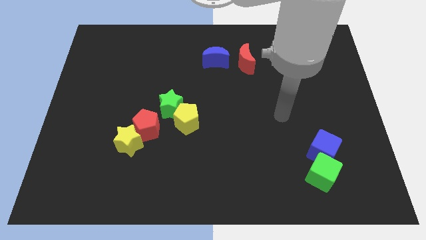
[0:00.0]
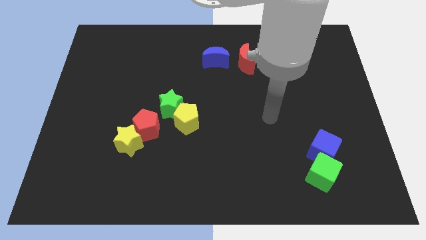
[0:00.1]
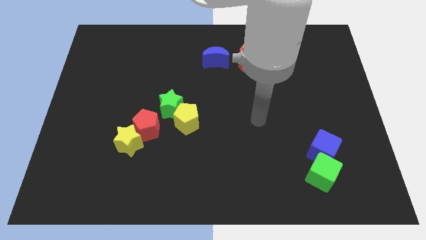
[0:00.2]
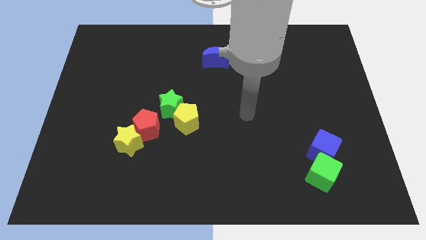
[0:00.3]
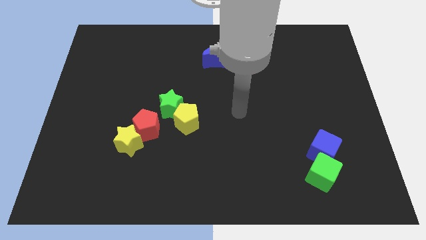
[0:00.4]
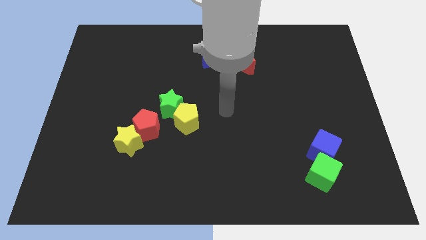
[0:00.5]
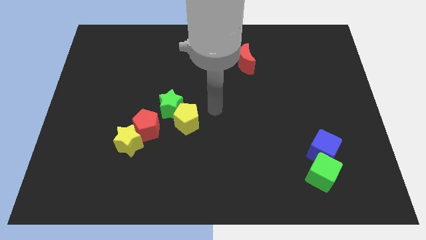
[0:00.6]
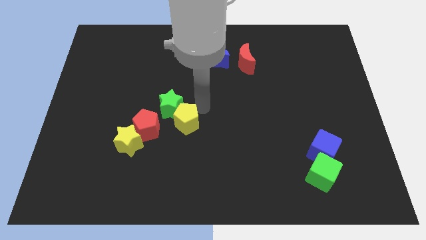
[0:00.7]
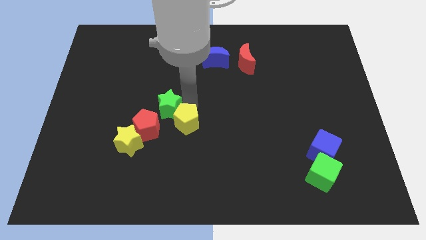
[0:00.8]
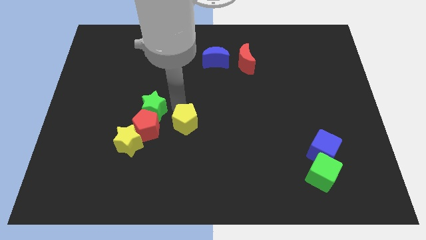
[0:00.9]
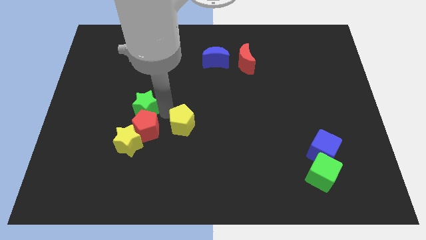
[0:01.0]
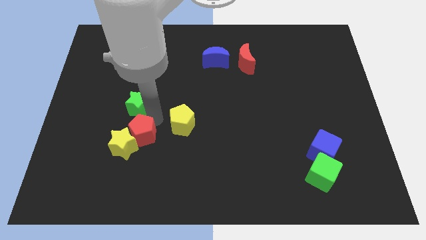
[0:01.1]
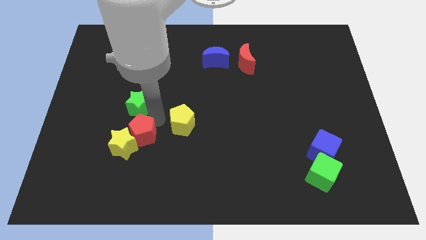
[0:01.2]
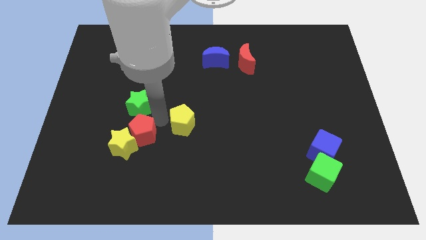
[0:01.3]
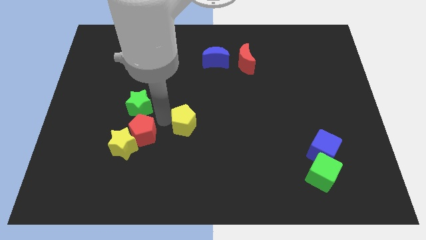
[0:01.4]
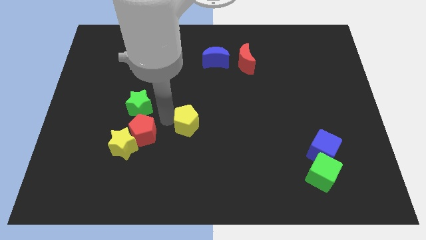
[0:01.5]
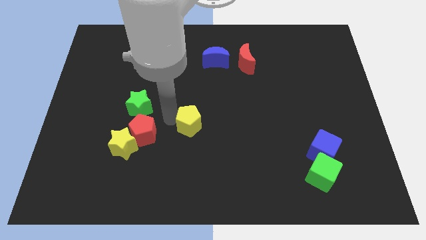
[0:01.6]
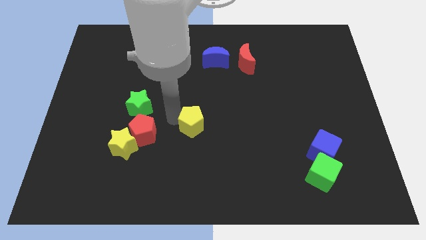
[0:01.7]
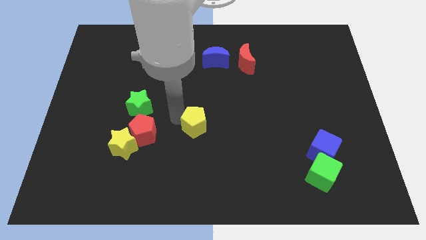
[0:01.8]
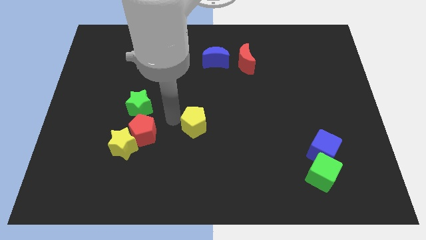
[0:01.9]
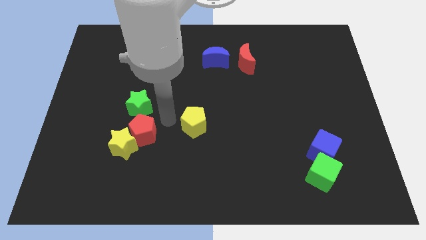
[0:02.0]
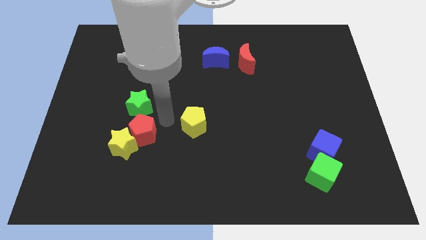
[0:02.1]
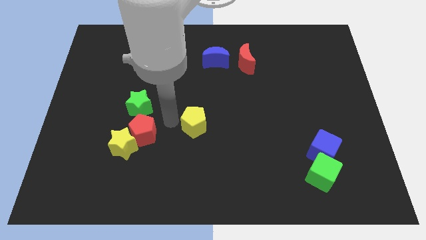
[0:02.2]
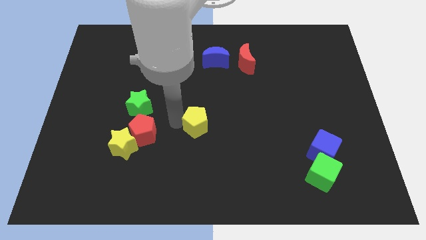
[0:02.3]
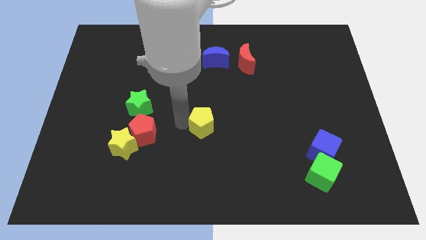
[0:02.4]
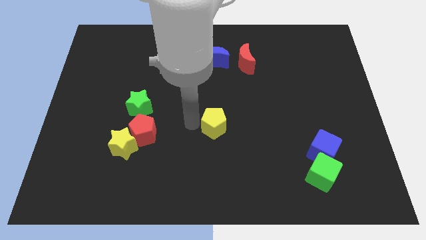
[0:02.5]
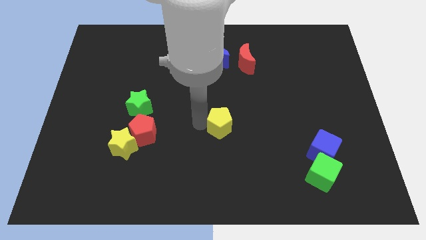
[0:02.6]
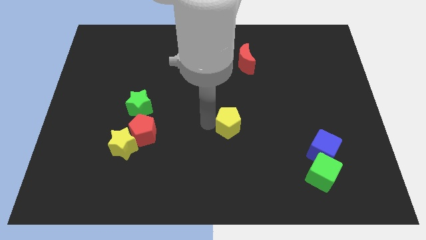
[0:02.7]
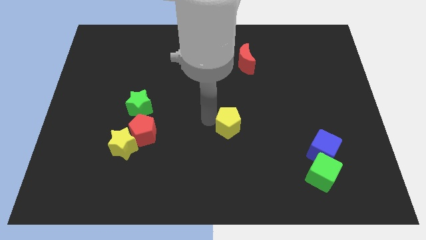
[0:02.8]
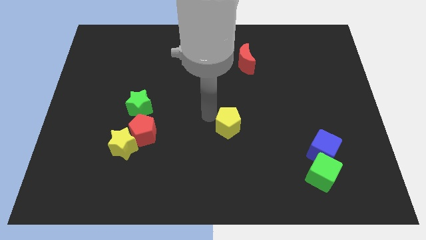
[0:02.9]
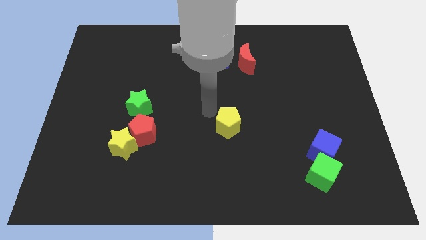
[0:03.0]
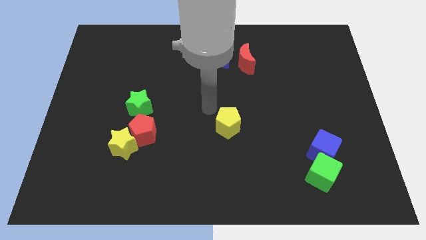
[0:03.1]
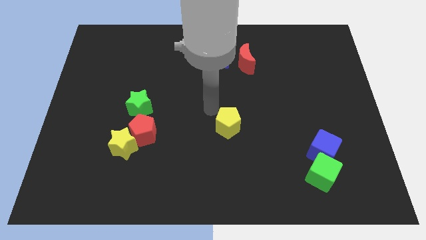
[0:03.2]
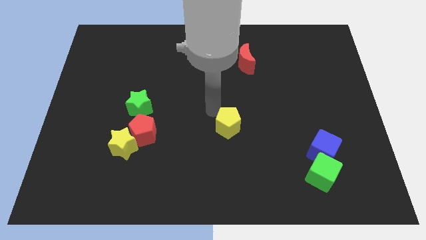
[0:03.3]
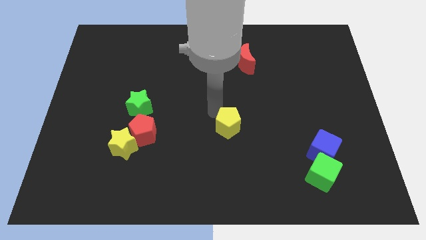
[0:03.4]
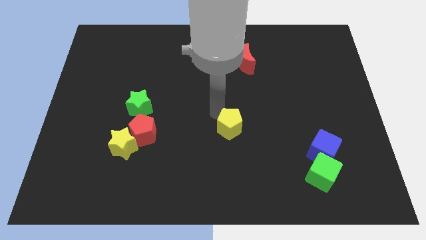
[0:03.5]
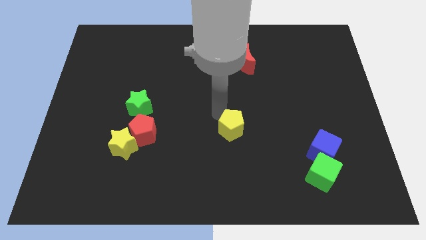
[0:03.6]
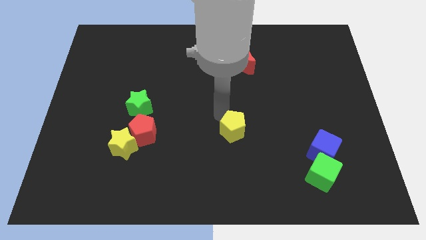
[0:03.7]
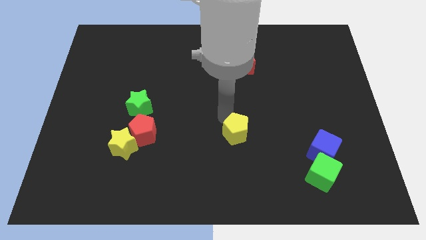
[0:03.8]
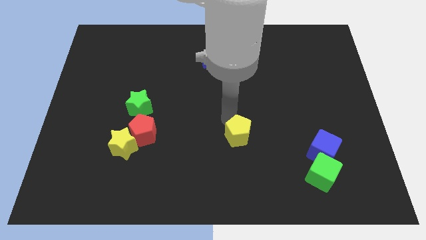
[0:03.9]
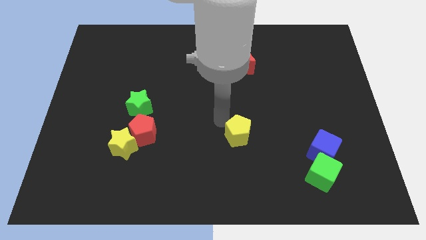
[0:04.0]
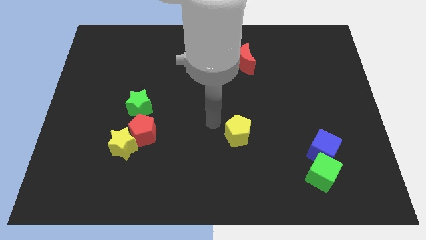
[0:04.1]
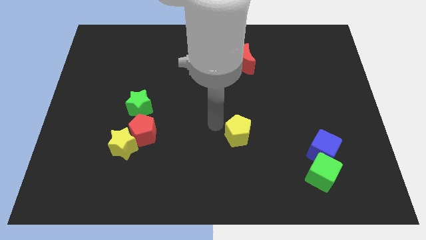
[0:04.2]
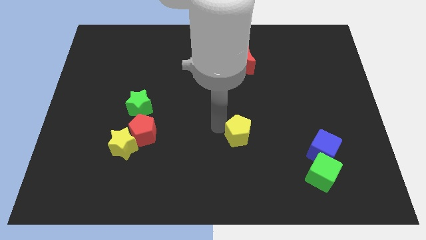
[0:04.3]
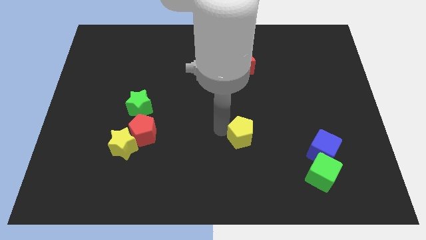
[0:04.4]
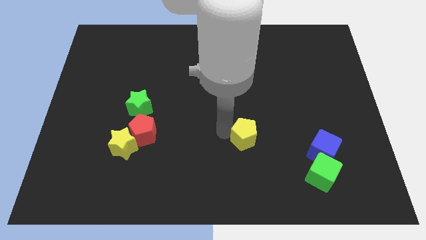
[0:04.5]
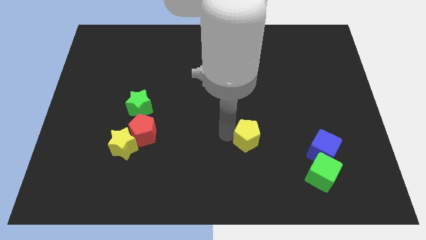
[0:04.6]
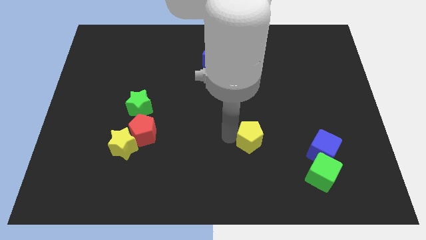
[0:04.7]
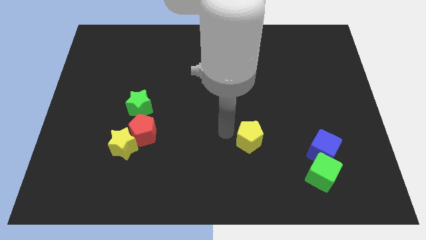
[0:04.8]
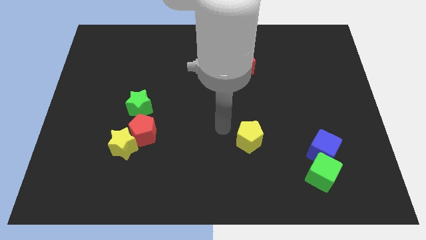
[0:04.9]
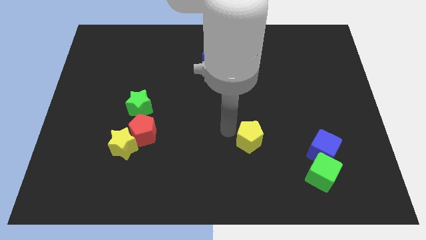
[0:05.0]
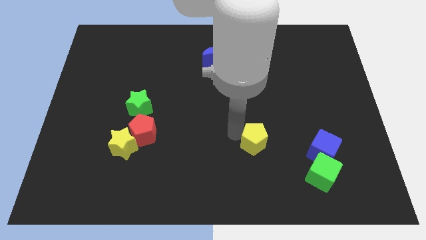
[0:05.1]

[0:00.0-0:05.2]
put the yellow pentagon left of the blue cube

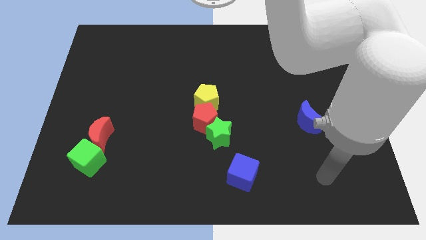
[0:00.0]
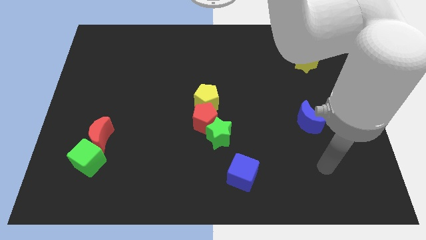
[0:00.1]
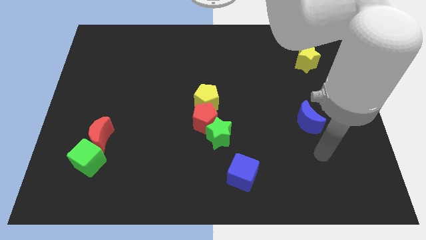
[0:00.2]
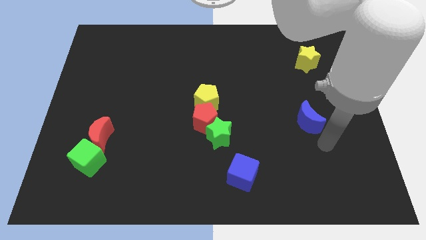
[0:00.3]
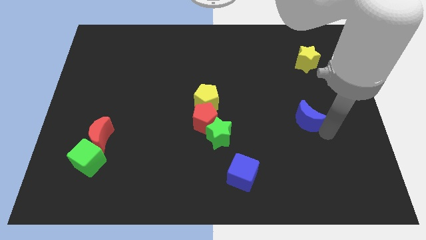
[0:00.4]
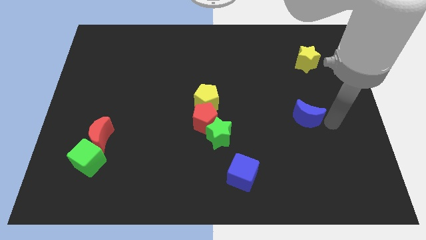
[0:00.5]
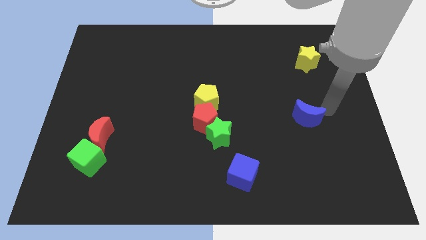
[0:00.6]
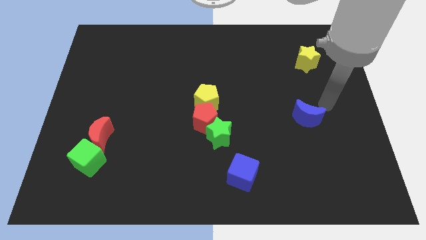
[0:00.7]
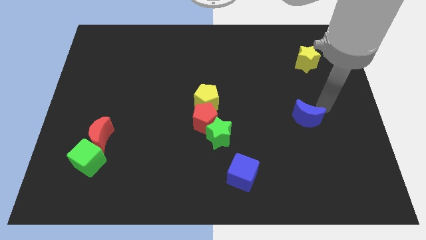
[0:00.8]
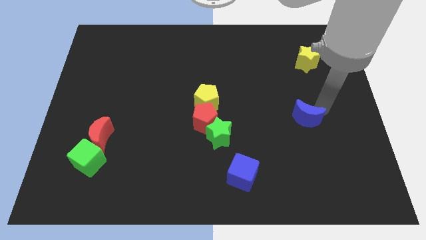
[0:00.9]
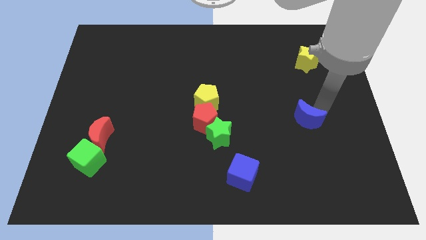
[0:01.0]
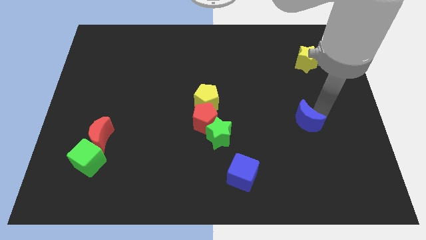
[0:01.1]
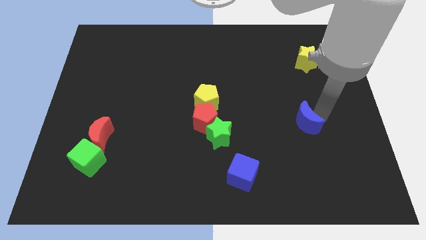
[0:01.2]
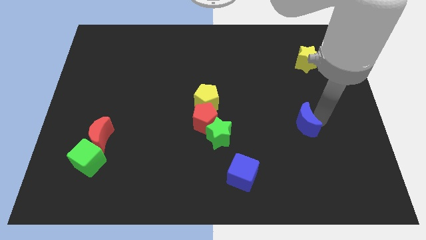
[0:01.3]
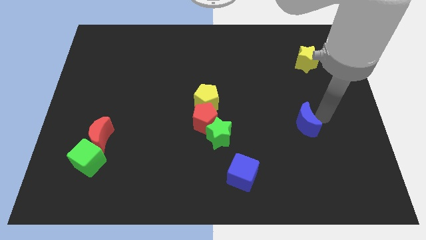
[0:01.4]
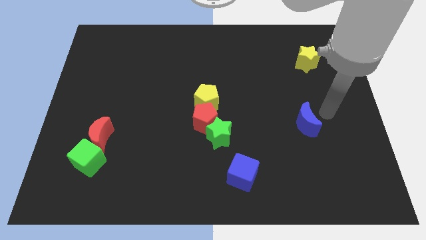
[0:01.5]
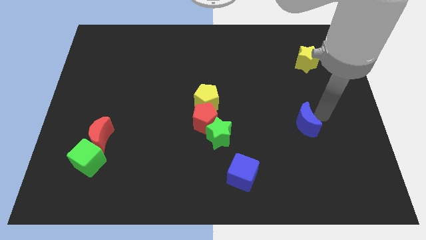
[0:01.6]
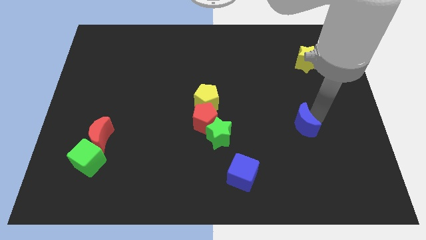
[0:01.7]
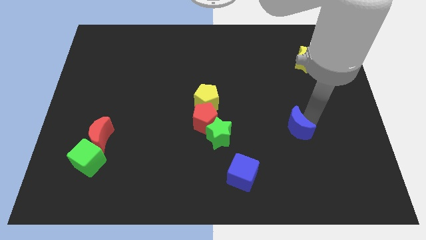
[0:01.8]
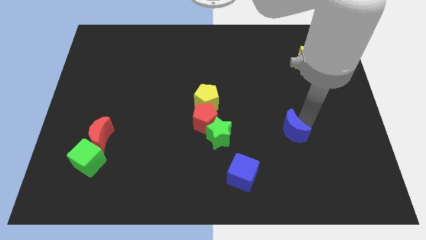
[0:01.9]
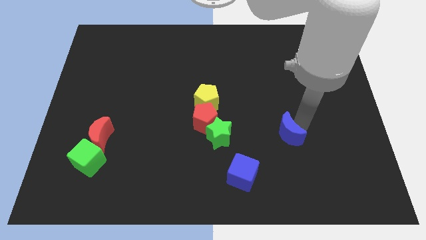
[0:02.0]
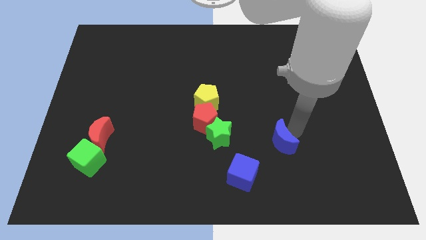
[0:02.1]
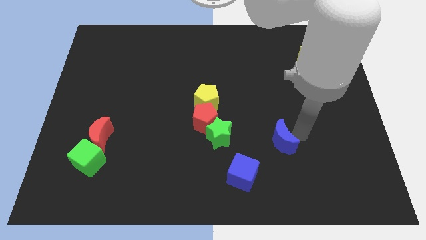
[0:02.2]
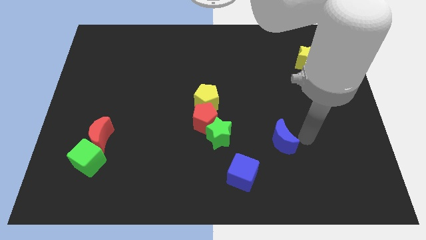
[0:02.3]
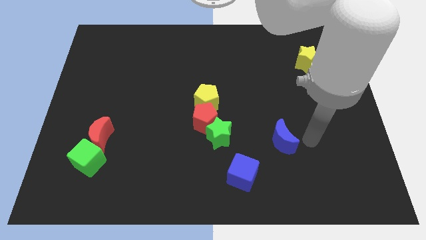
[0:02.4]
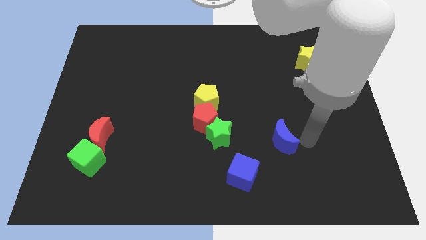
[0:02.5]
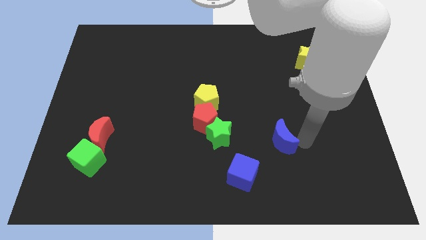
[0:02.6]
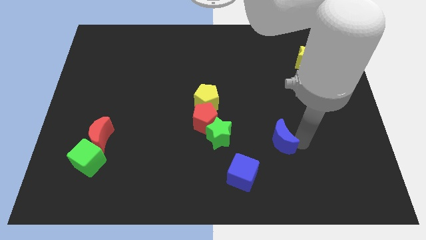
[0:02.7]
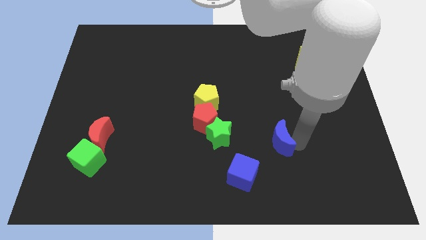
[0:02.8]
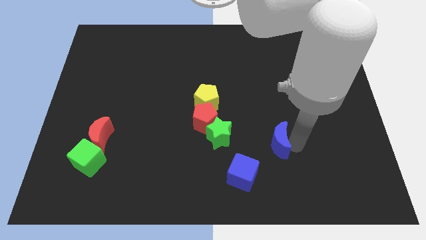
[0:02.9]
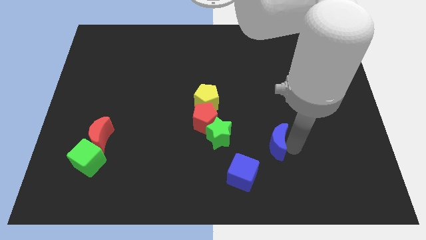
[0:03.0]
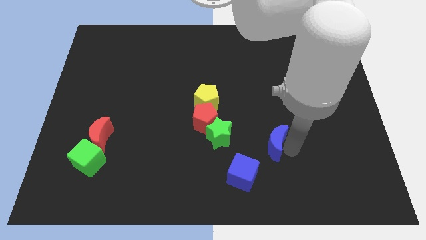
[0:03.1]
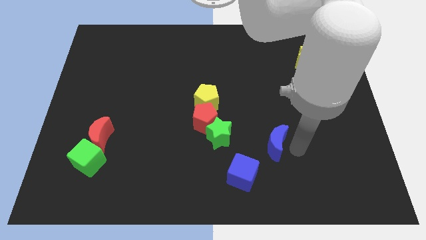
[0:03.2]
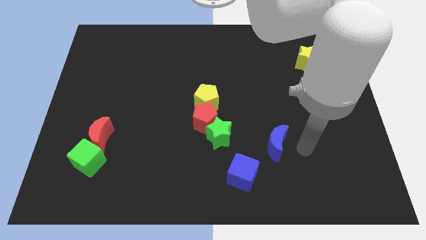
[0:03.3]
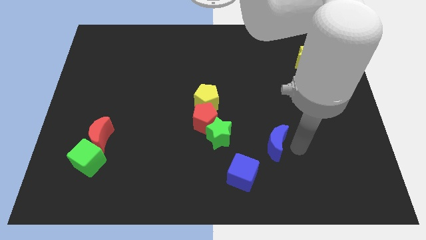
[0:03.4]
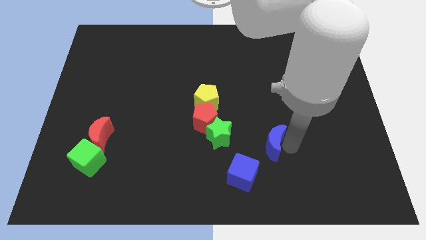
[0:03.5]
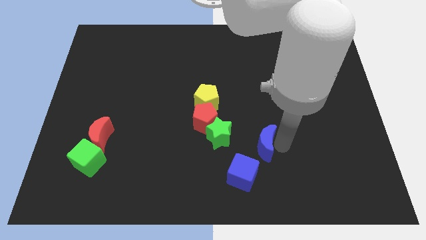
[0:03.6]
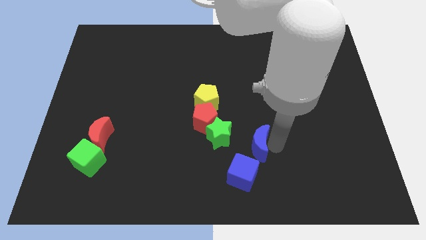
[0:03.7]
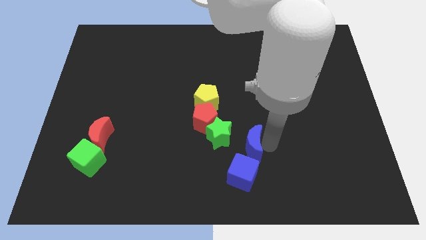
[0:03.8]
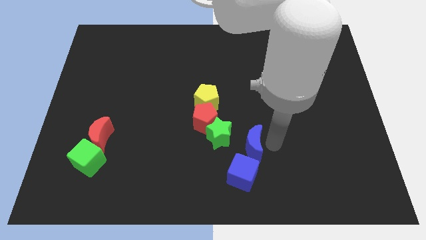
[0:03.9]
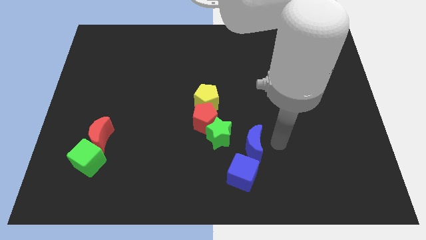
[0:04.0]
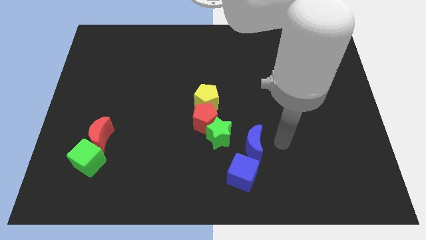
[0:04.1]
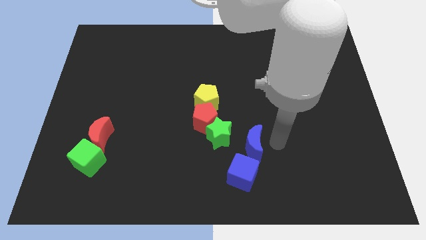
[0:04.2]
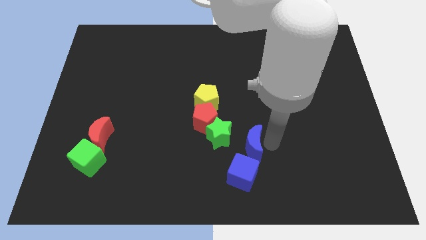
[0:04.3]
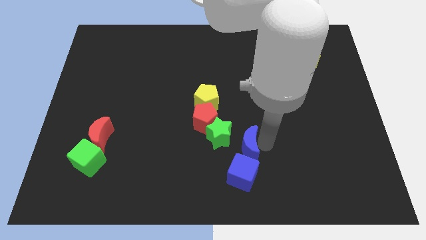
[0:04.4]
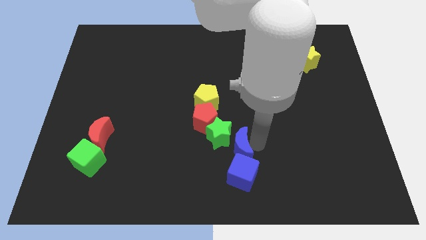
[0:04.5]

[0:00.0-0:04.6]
push the blue moon below the green star
